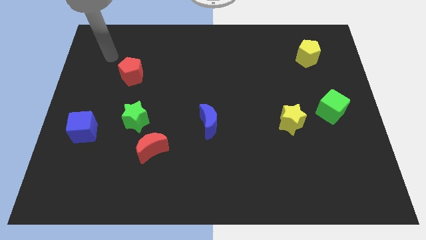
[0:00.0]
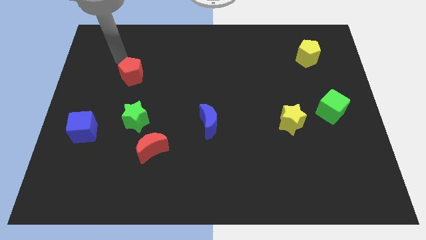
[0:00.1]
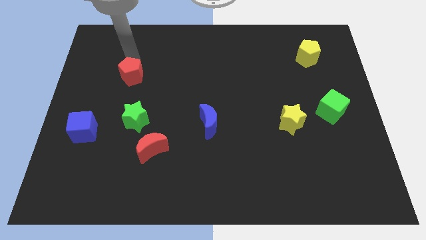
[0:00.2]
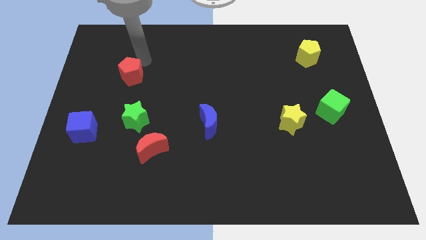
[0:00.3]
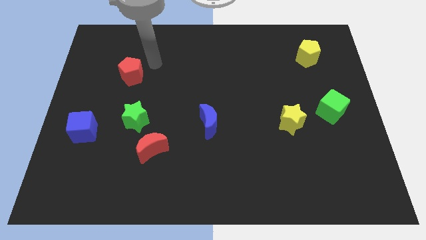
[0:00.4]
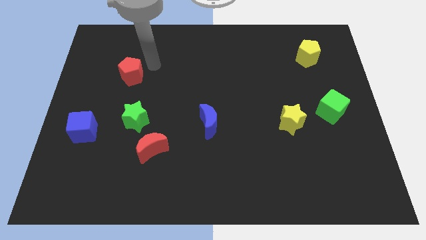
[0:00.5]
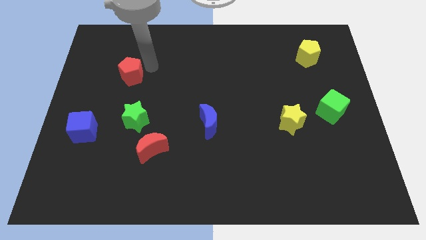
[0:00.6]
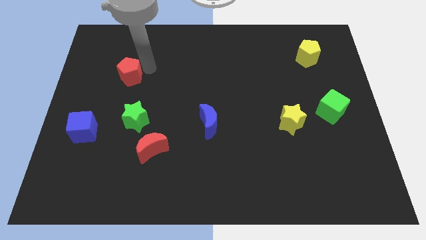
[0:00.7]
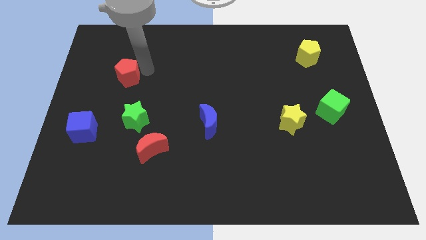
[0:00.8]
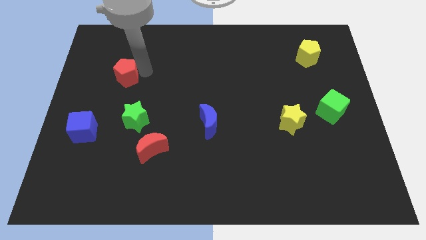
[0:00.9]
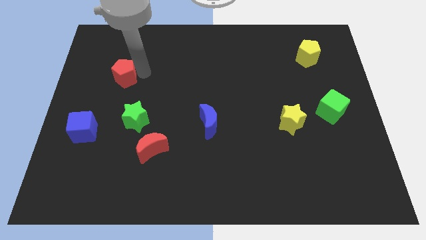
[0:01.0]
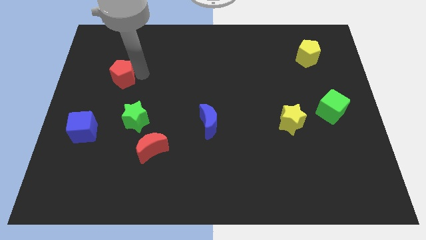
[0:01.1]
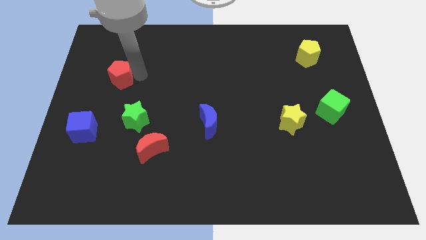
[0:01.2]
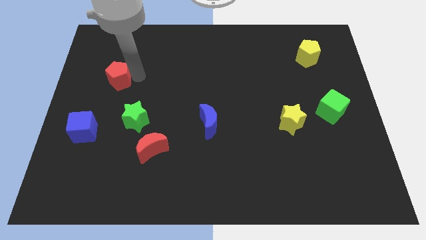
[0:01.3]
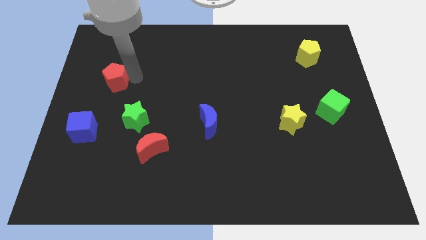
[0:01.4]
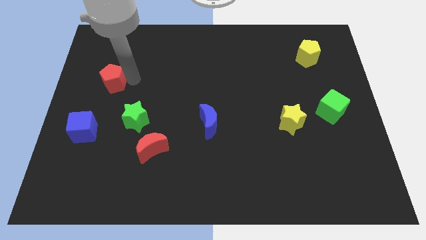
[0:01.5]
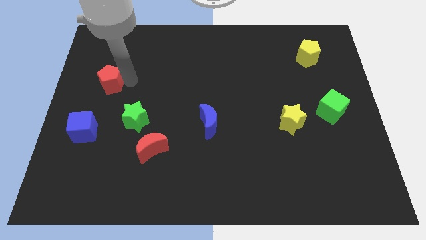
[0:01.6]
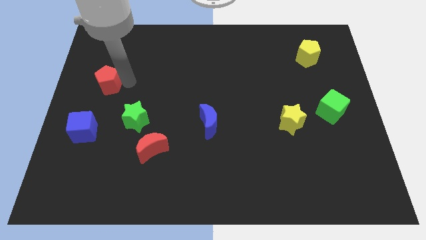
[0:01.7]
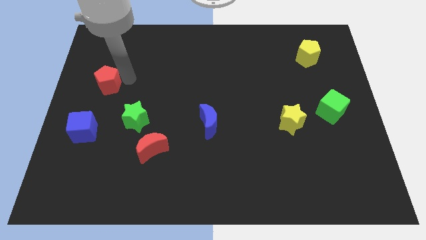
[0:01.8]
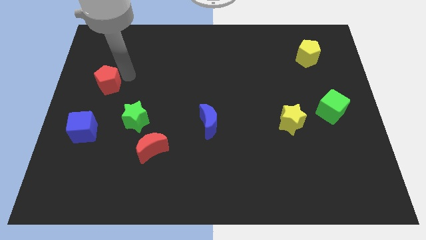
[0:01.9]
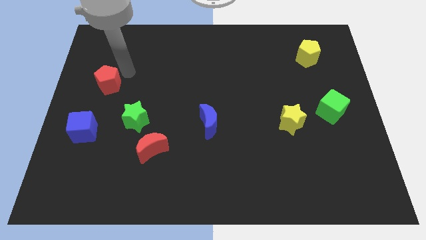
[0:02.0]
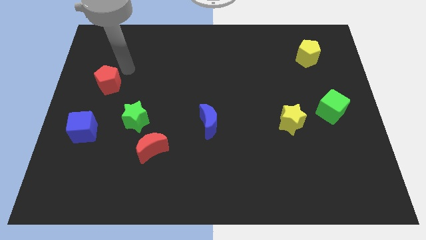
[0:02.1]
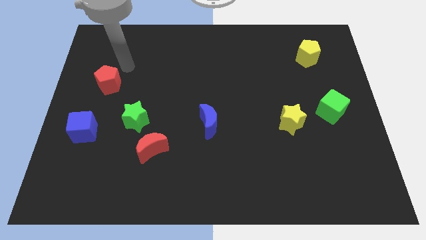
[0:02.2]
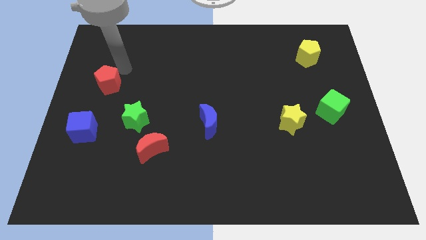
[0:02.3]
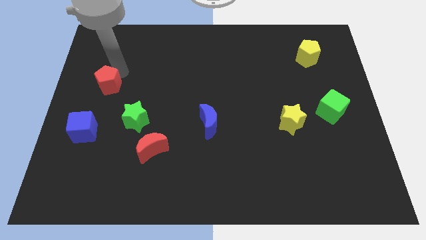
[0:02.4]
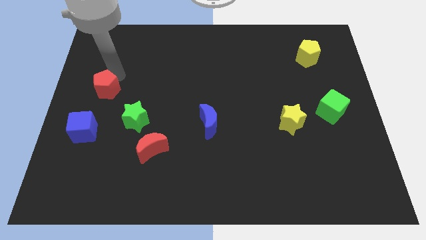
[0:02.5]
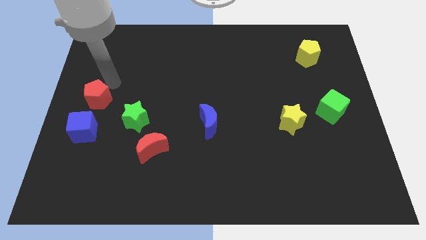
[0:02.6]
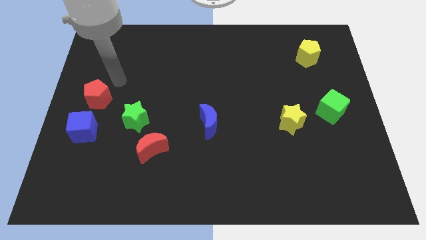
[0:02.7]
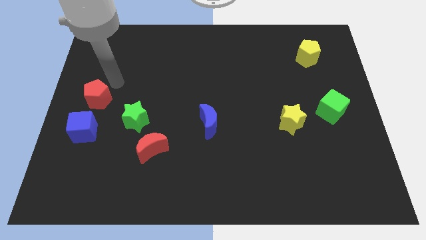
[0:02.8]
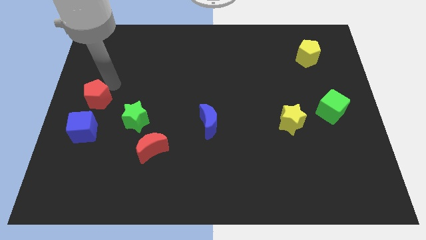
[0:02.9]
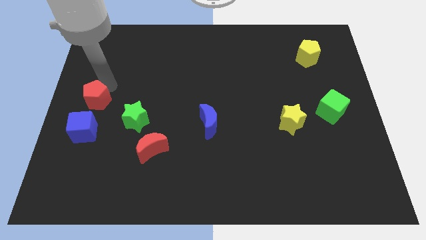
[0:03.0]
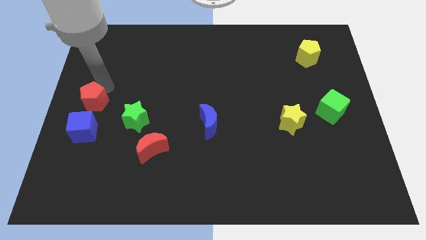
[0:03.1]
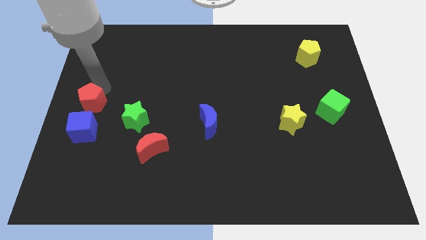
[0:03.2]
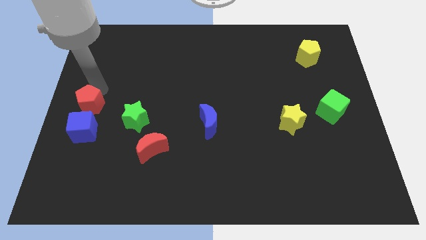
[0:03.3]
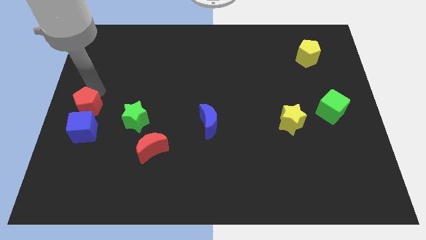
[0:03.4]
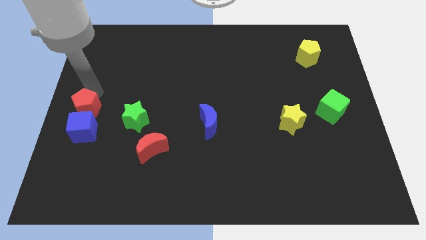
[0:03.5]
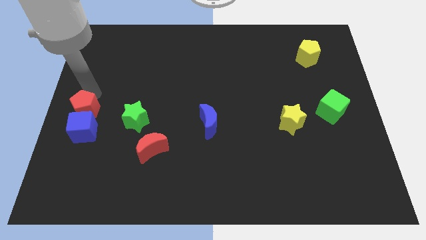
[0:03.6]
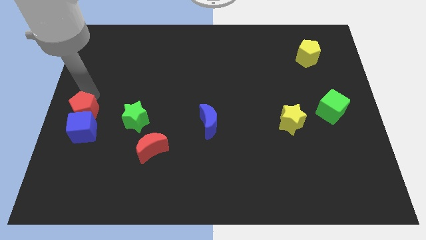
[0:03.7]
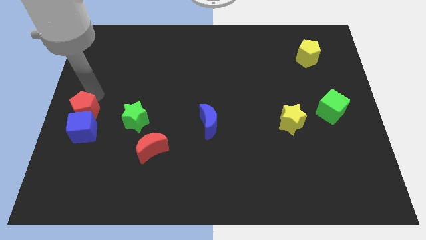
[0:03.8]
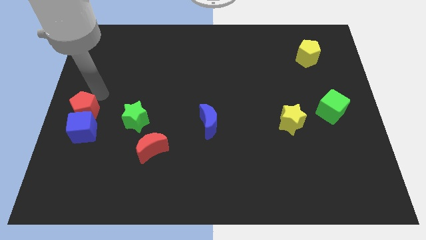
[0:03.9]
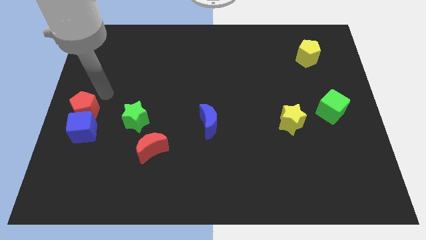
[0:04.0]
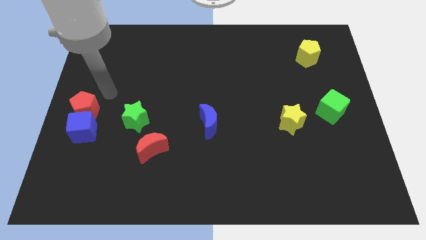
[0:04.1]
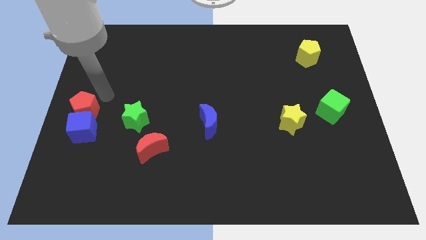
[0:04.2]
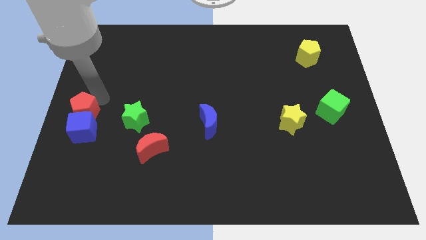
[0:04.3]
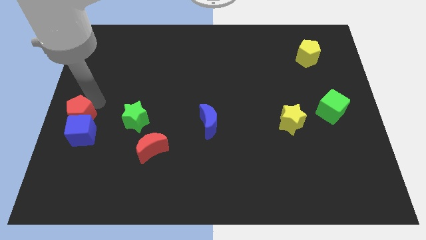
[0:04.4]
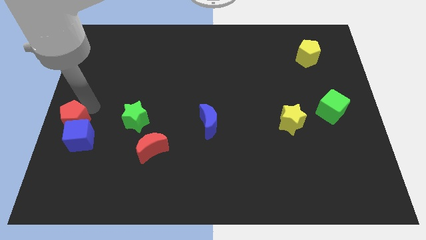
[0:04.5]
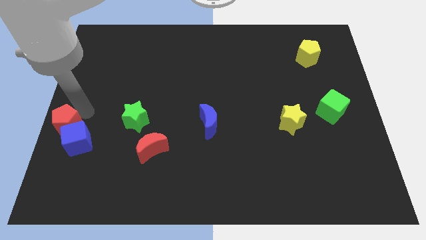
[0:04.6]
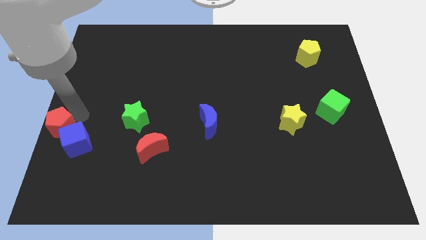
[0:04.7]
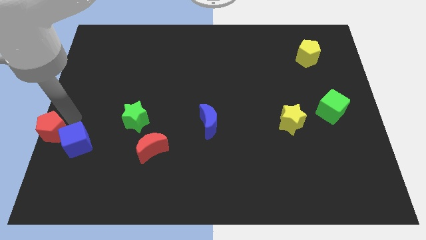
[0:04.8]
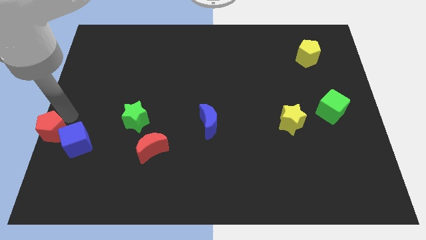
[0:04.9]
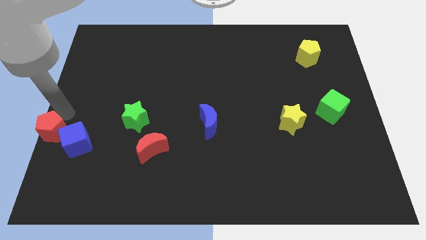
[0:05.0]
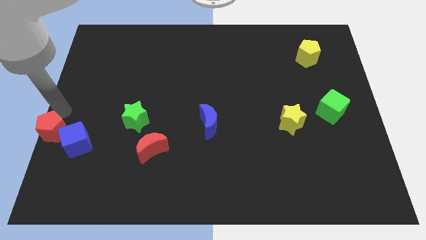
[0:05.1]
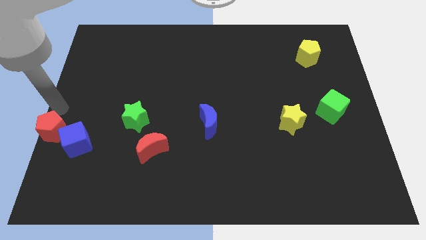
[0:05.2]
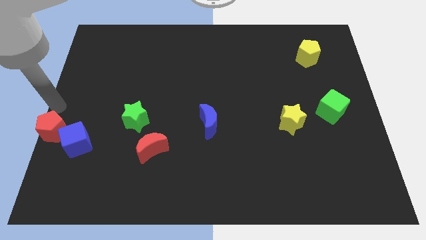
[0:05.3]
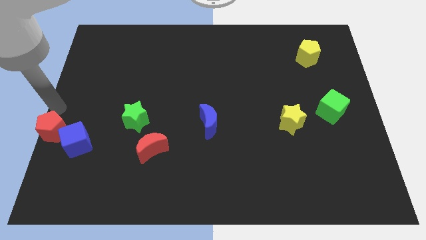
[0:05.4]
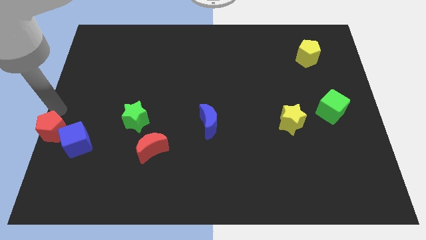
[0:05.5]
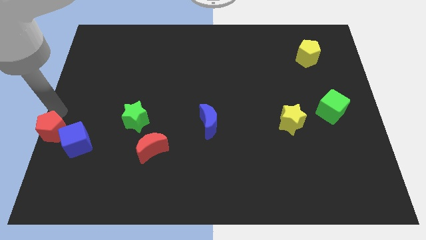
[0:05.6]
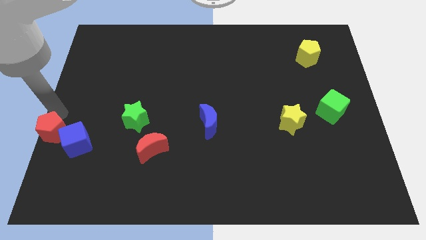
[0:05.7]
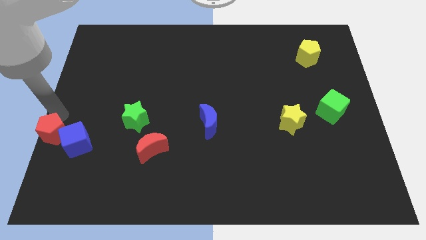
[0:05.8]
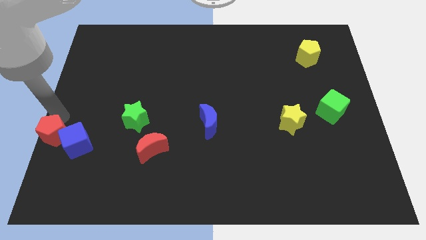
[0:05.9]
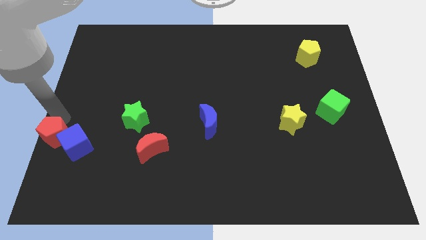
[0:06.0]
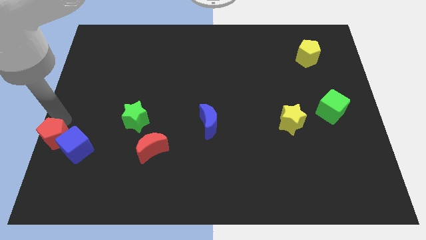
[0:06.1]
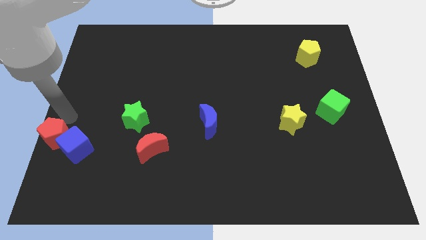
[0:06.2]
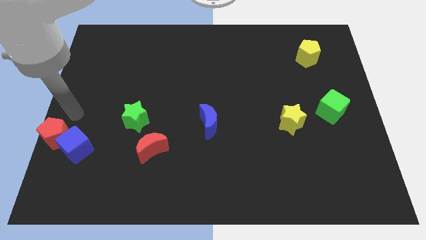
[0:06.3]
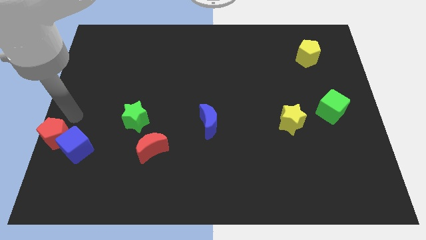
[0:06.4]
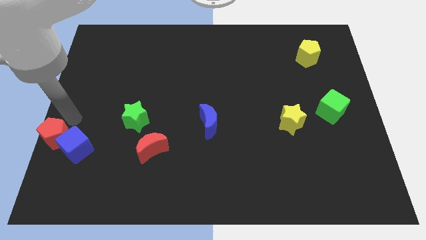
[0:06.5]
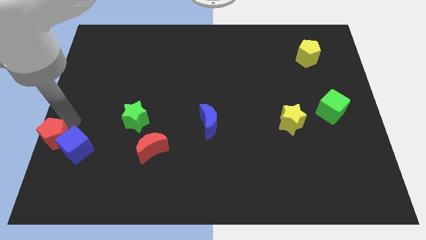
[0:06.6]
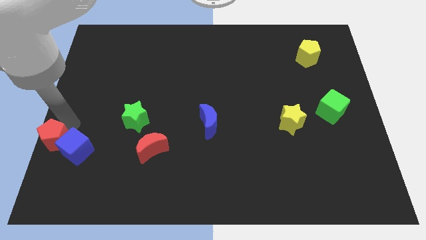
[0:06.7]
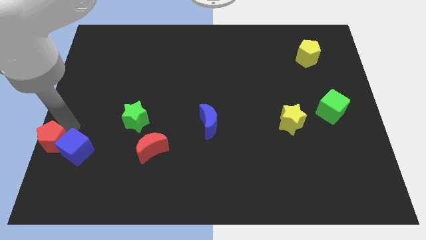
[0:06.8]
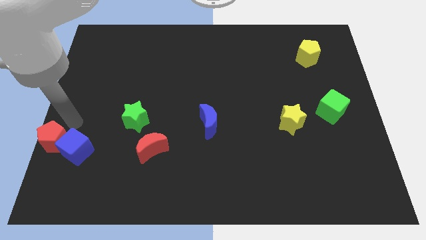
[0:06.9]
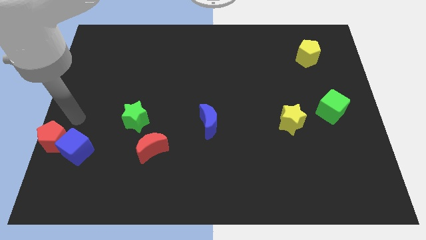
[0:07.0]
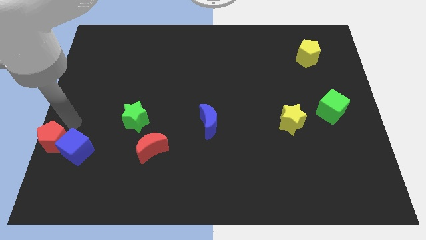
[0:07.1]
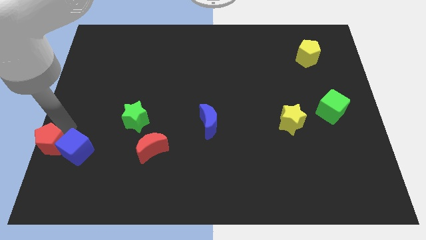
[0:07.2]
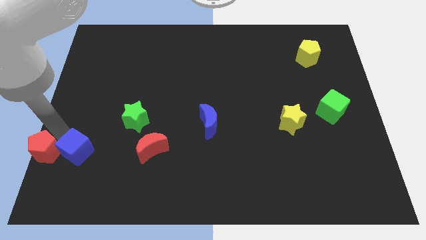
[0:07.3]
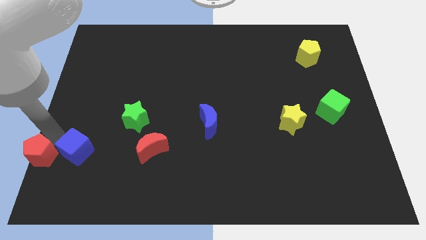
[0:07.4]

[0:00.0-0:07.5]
put the red pentagon to the lower left corner
